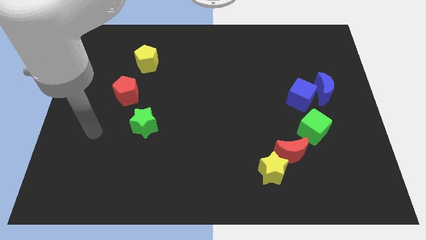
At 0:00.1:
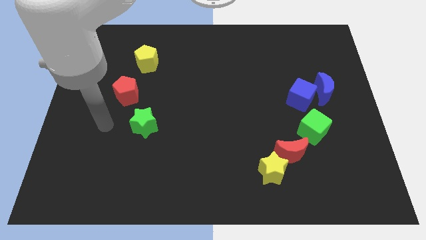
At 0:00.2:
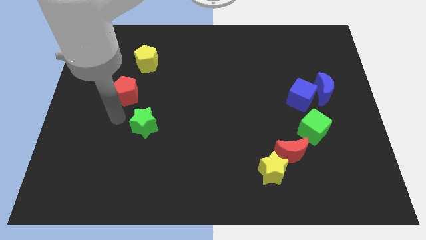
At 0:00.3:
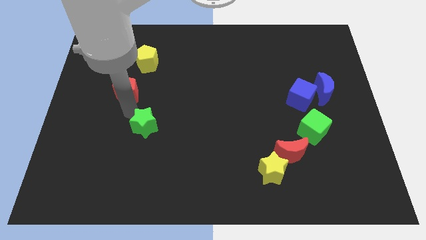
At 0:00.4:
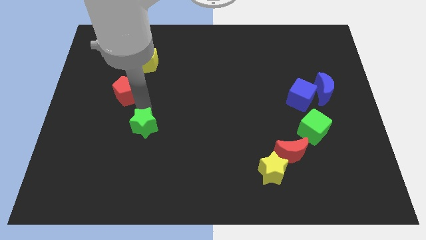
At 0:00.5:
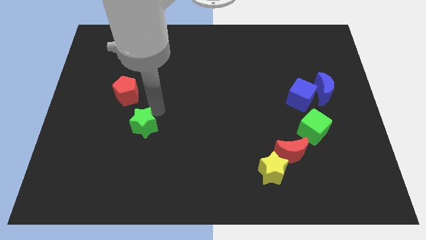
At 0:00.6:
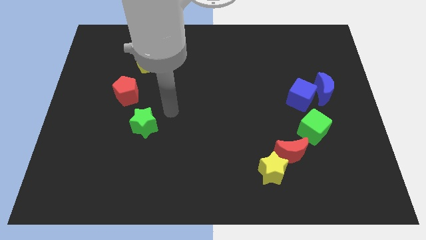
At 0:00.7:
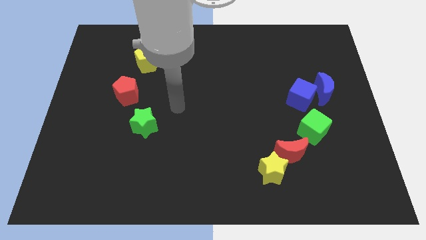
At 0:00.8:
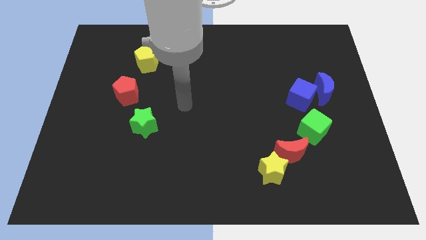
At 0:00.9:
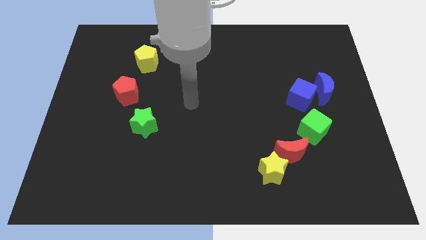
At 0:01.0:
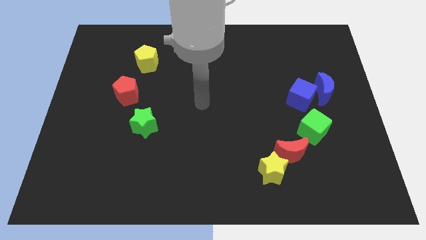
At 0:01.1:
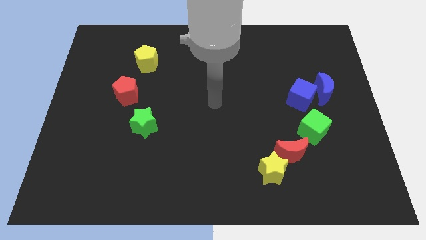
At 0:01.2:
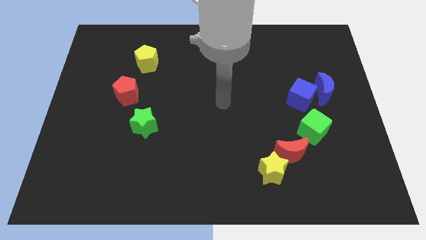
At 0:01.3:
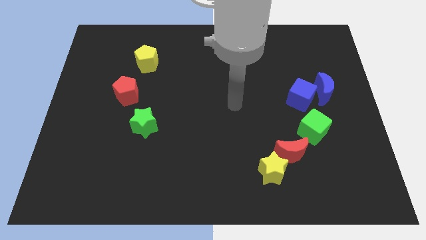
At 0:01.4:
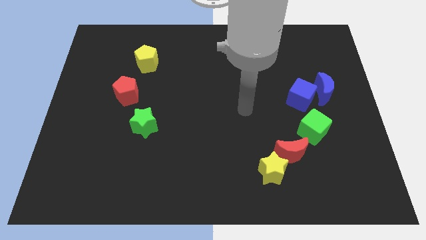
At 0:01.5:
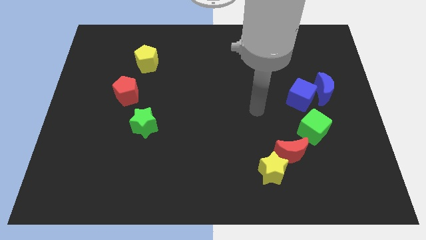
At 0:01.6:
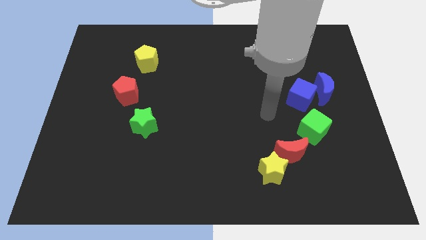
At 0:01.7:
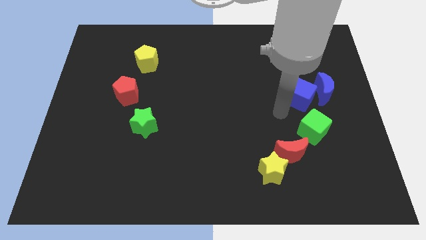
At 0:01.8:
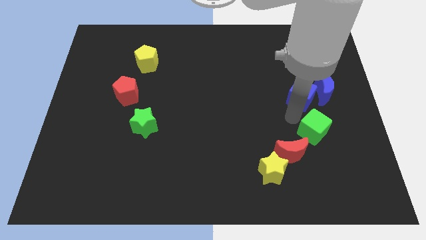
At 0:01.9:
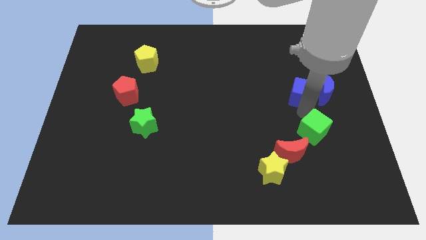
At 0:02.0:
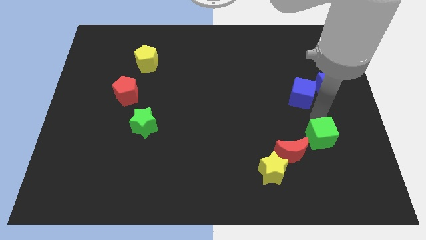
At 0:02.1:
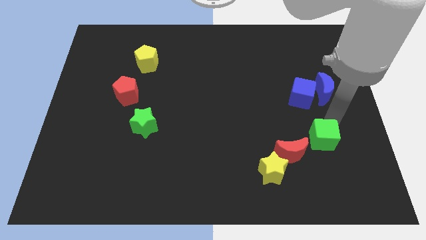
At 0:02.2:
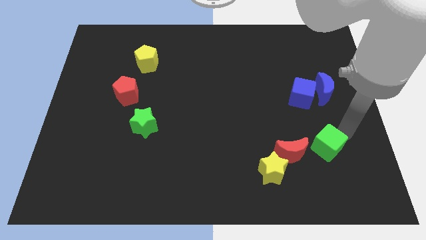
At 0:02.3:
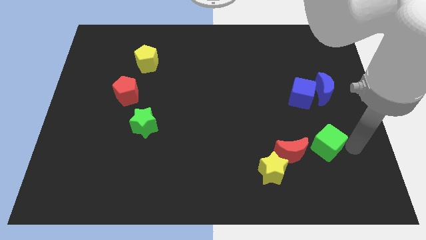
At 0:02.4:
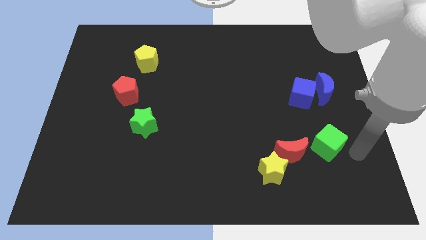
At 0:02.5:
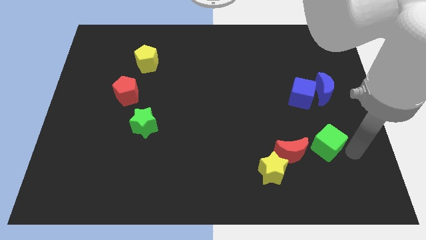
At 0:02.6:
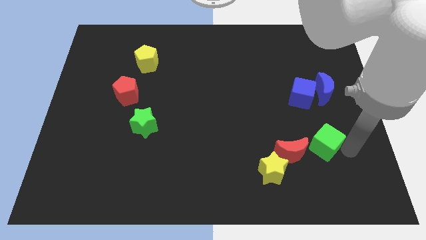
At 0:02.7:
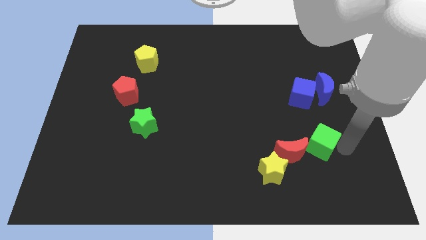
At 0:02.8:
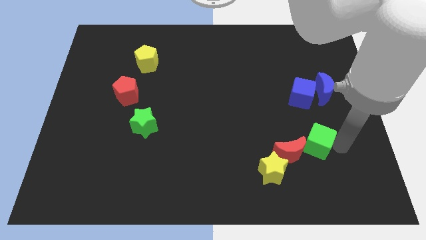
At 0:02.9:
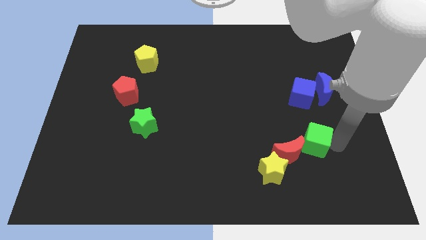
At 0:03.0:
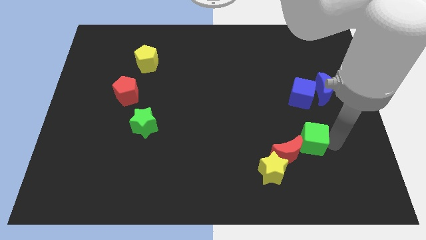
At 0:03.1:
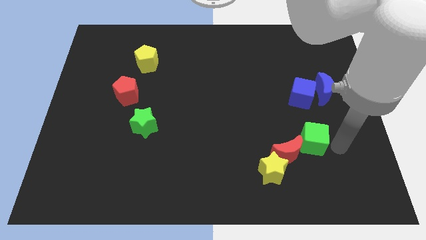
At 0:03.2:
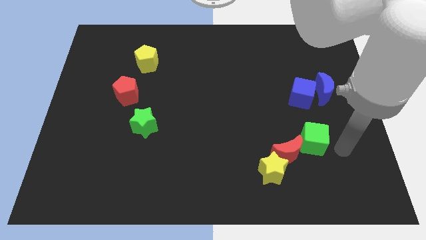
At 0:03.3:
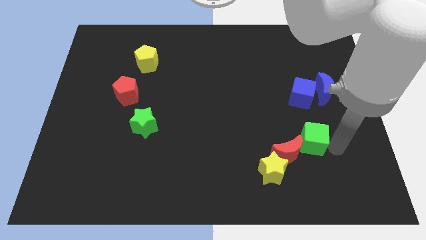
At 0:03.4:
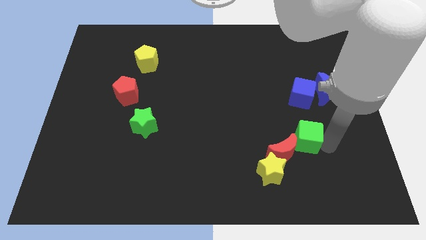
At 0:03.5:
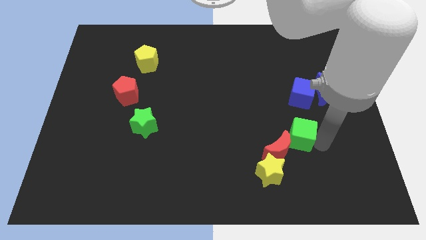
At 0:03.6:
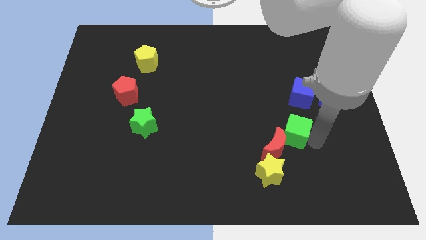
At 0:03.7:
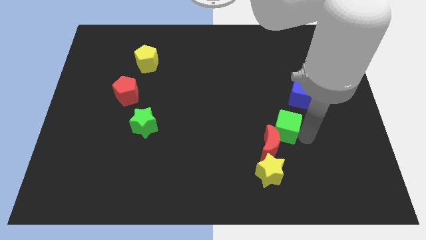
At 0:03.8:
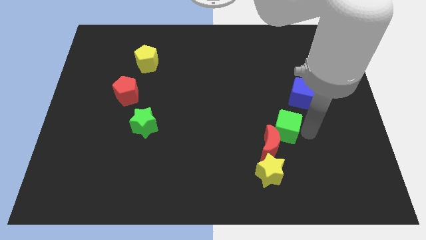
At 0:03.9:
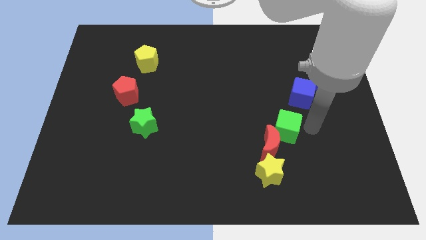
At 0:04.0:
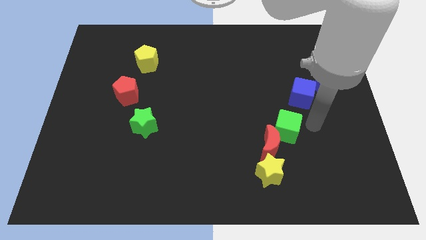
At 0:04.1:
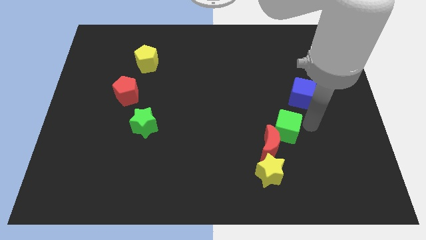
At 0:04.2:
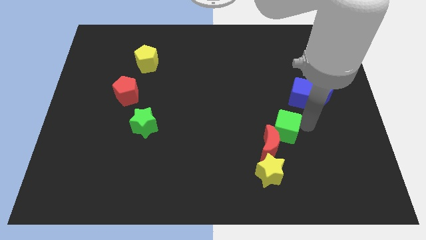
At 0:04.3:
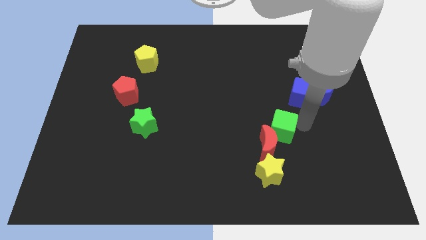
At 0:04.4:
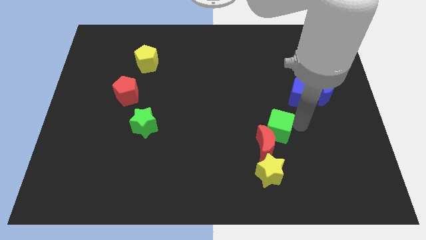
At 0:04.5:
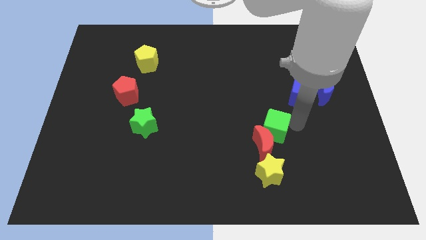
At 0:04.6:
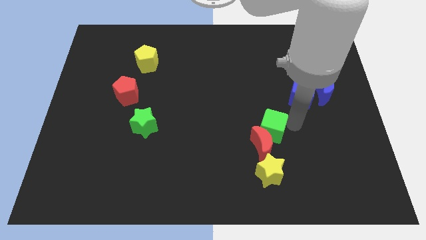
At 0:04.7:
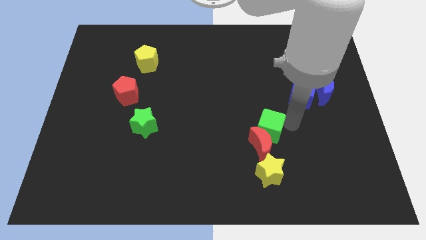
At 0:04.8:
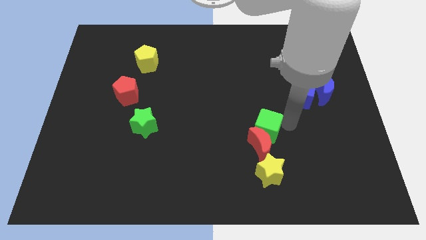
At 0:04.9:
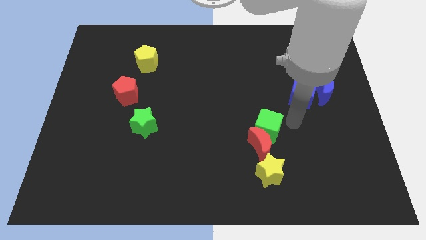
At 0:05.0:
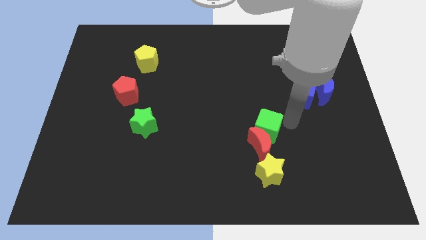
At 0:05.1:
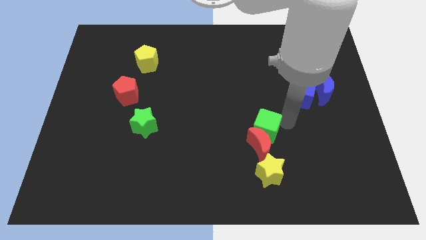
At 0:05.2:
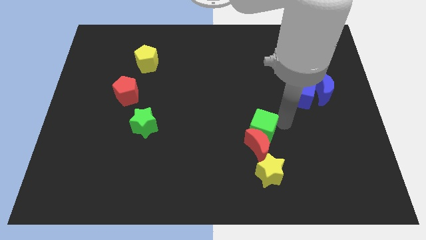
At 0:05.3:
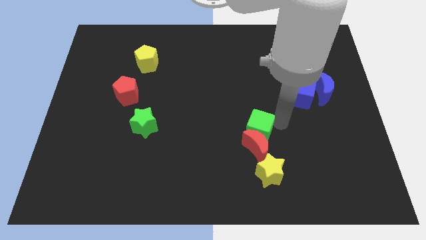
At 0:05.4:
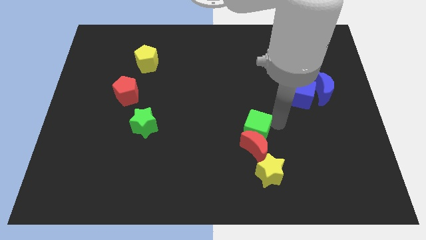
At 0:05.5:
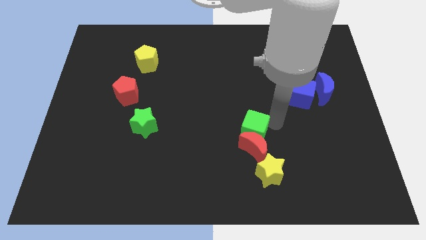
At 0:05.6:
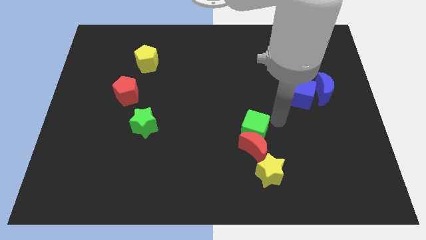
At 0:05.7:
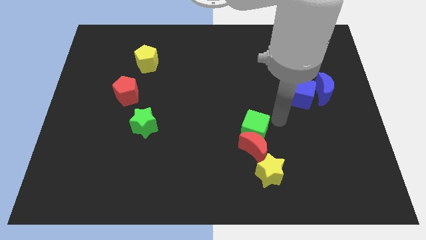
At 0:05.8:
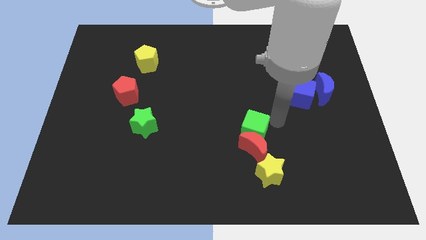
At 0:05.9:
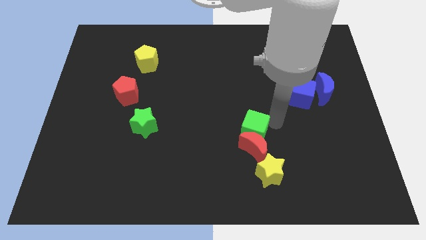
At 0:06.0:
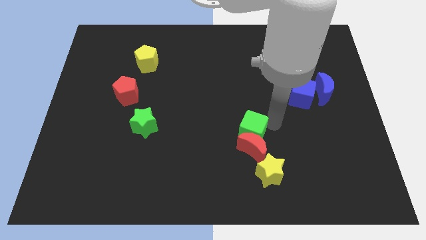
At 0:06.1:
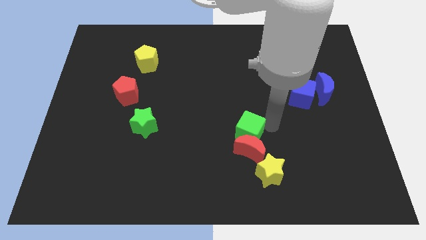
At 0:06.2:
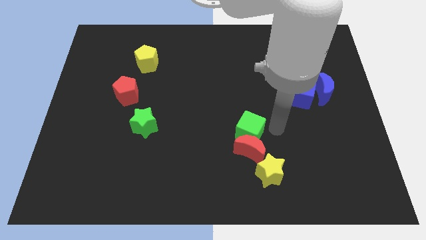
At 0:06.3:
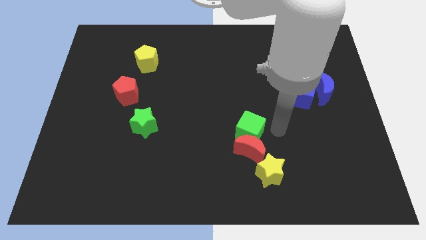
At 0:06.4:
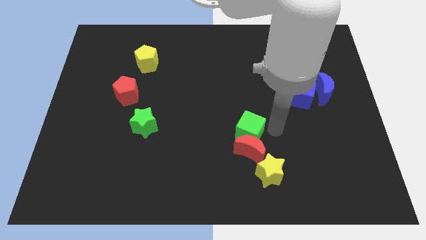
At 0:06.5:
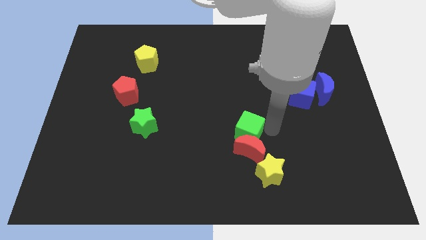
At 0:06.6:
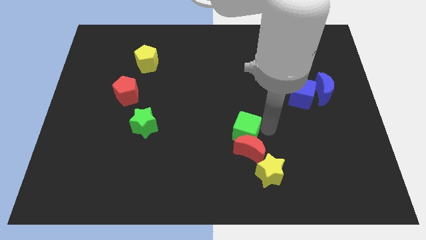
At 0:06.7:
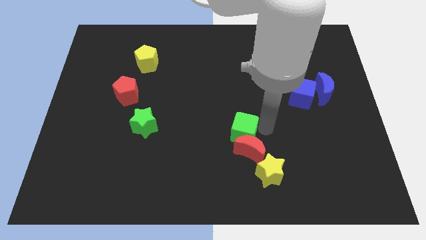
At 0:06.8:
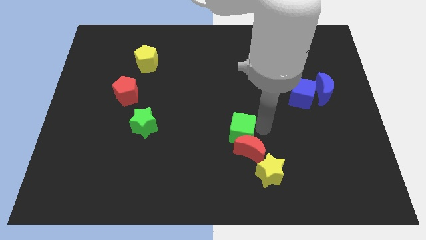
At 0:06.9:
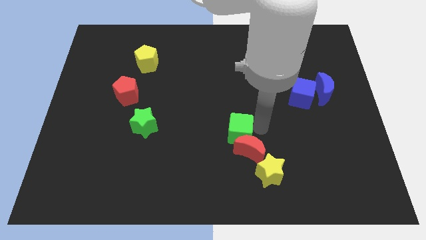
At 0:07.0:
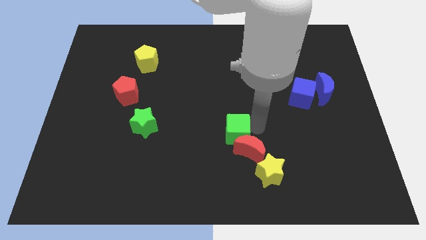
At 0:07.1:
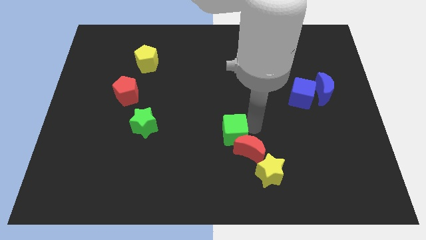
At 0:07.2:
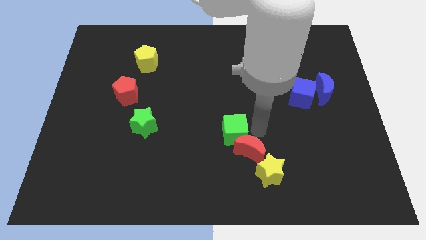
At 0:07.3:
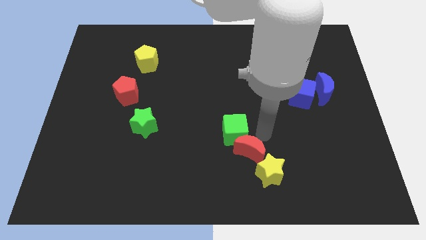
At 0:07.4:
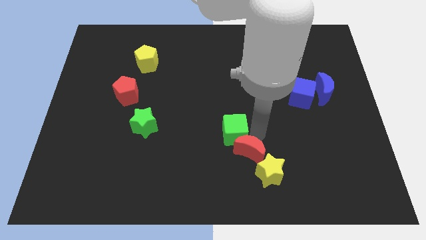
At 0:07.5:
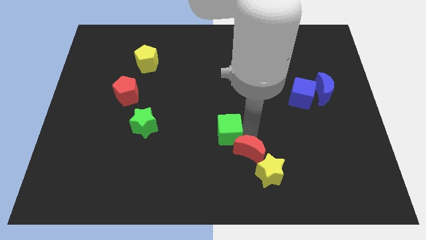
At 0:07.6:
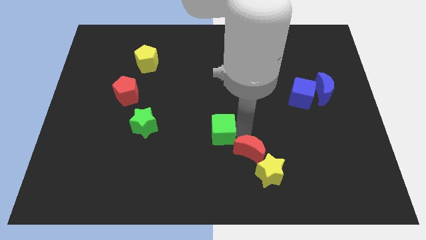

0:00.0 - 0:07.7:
push the green cube to the left

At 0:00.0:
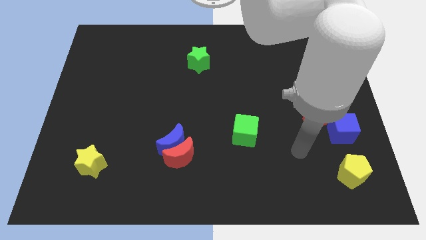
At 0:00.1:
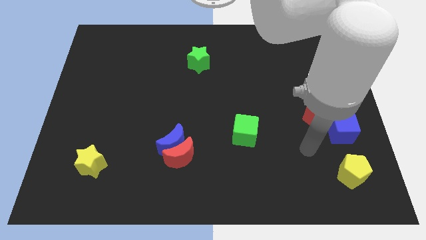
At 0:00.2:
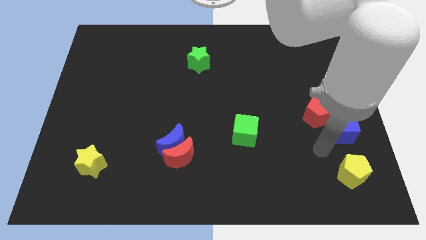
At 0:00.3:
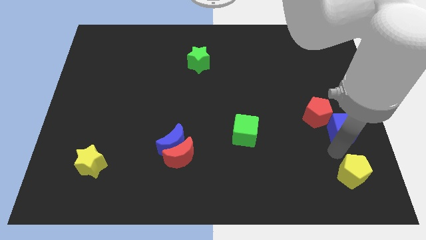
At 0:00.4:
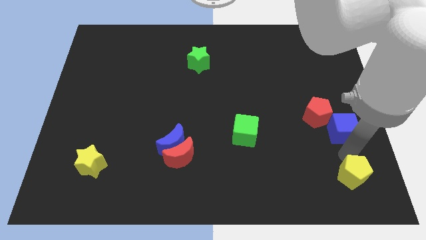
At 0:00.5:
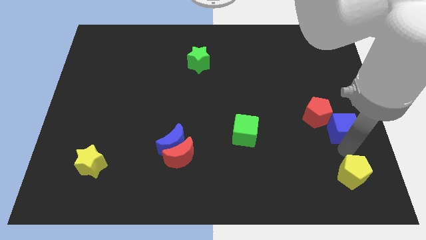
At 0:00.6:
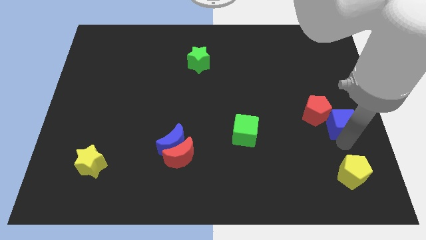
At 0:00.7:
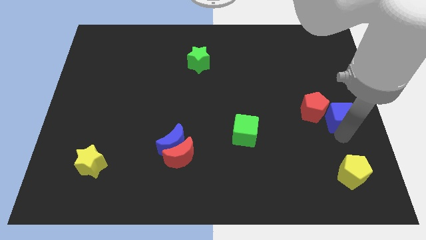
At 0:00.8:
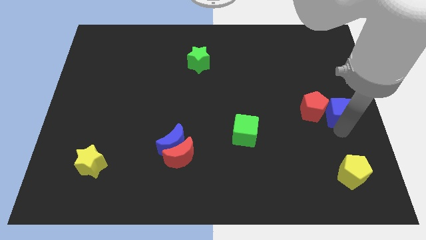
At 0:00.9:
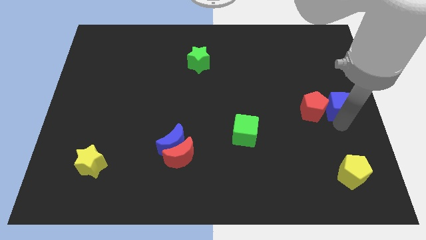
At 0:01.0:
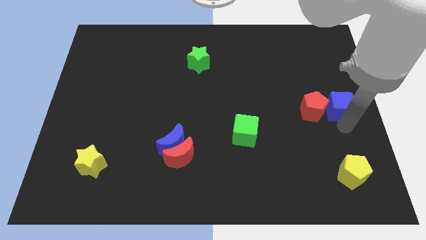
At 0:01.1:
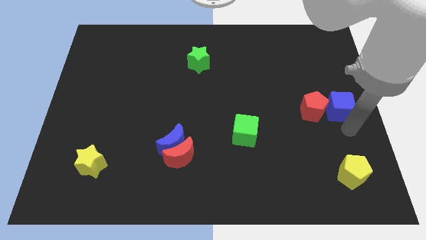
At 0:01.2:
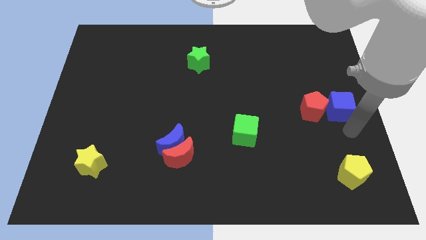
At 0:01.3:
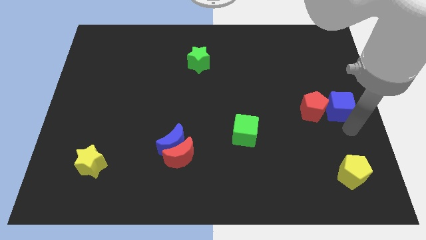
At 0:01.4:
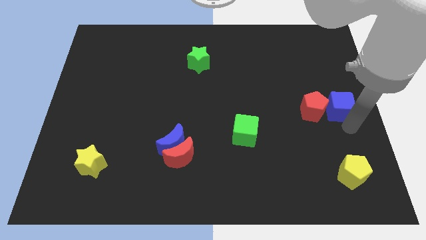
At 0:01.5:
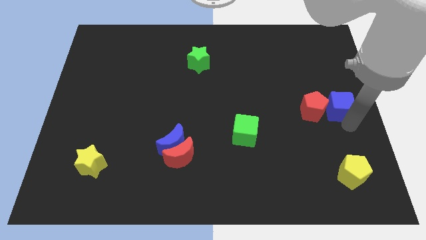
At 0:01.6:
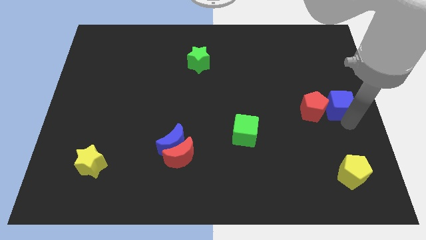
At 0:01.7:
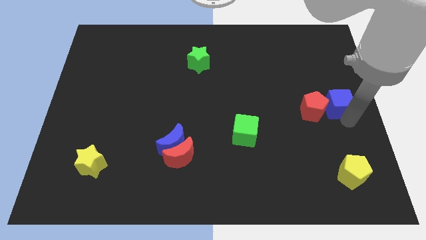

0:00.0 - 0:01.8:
slightly slide the blue cube upwards
